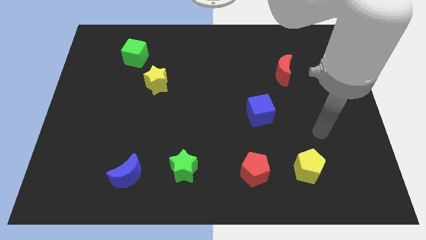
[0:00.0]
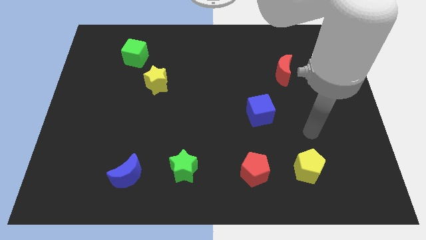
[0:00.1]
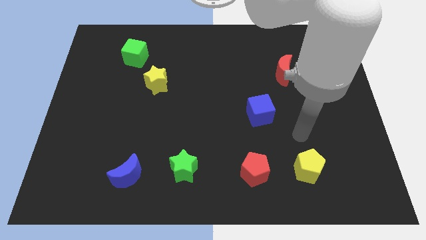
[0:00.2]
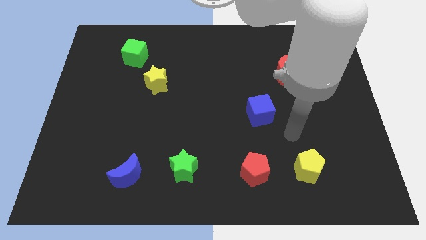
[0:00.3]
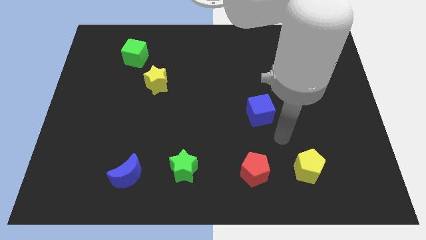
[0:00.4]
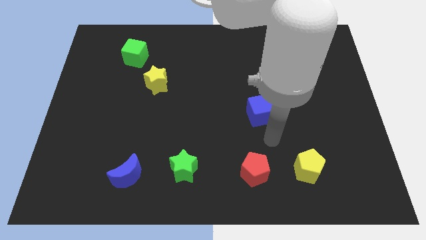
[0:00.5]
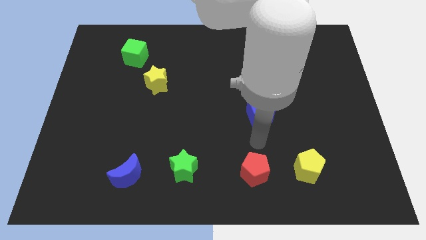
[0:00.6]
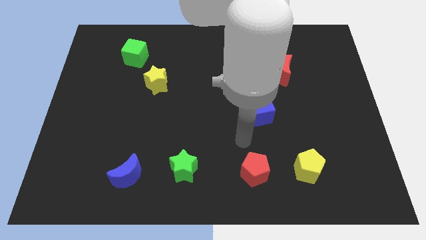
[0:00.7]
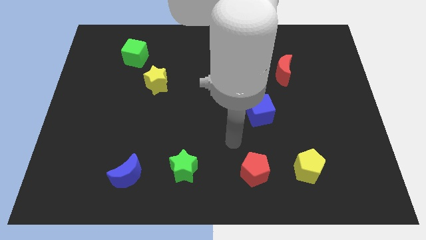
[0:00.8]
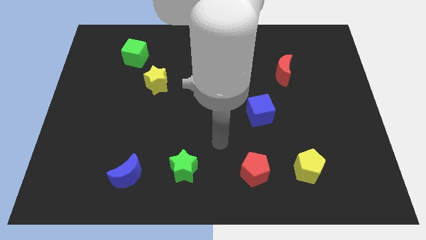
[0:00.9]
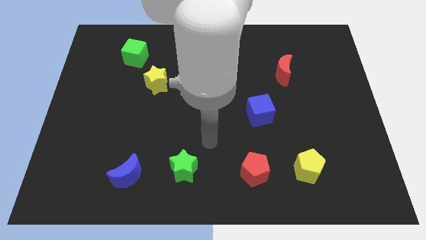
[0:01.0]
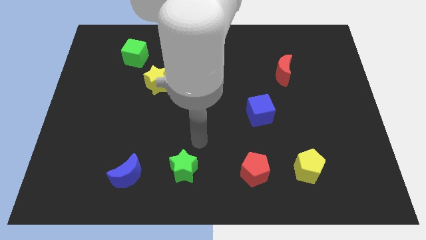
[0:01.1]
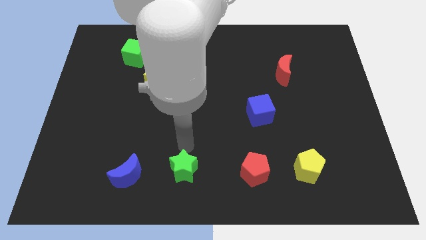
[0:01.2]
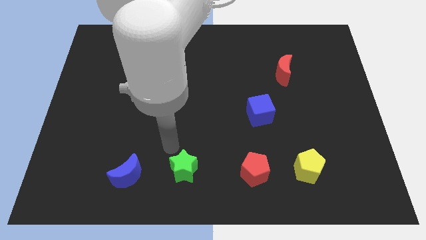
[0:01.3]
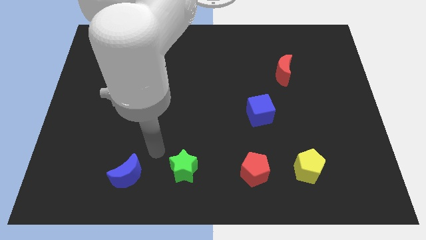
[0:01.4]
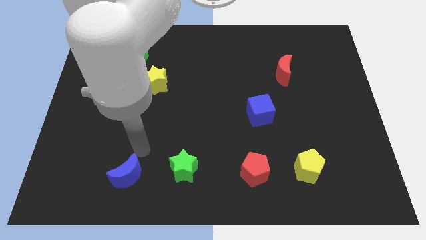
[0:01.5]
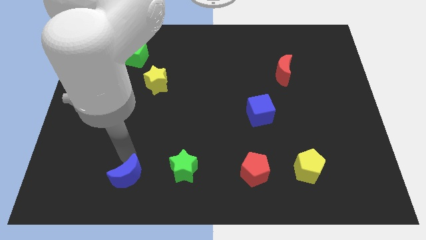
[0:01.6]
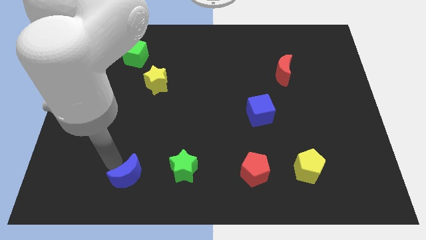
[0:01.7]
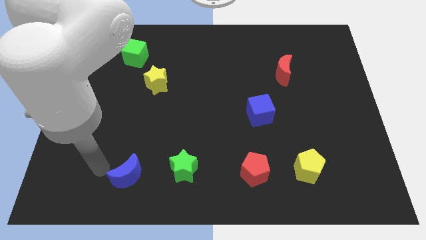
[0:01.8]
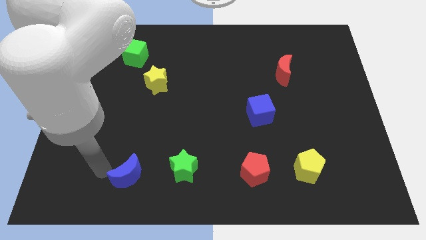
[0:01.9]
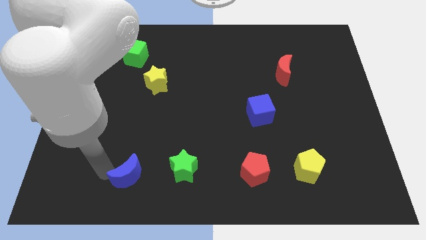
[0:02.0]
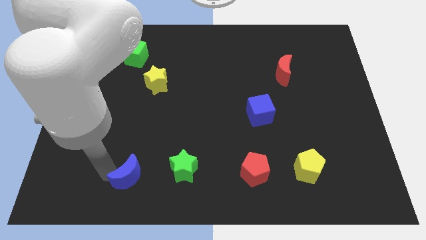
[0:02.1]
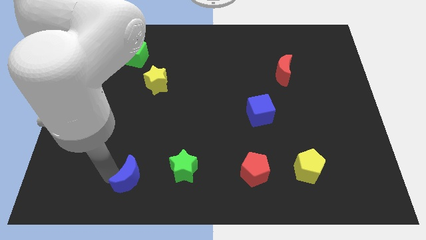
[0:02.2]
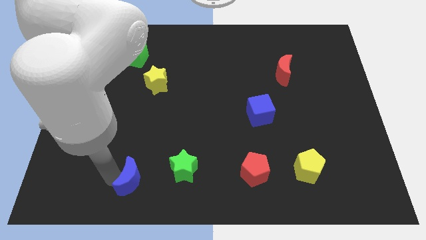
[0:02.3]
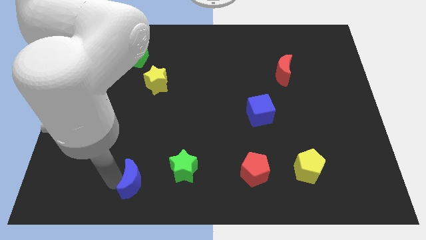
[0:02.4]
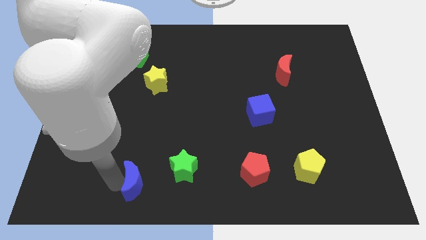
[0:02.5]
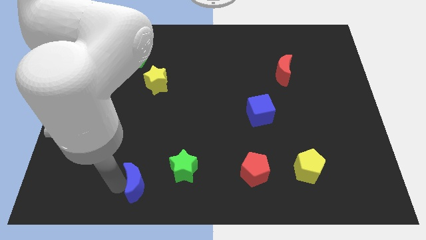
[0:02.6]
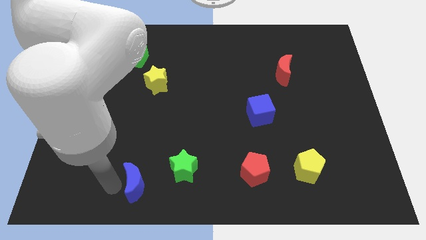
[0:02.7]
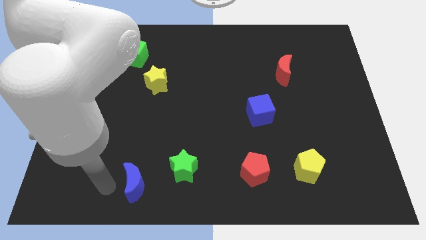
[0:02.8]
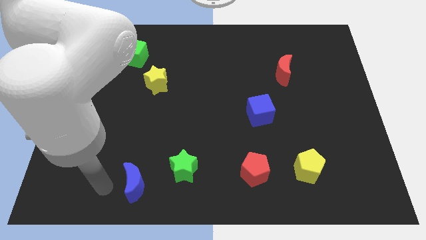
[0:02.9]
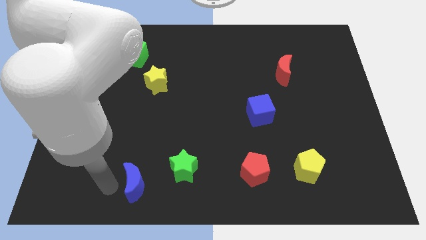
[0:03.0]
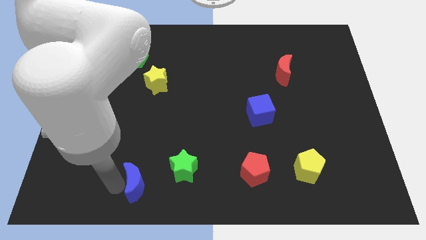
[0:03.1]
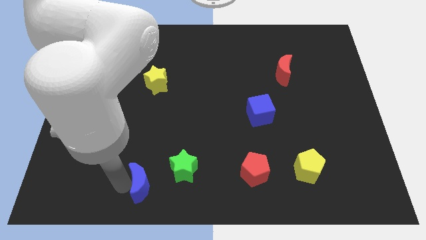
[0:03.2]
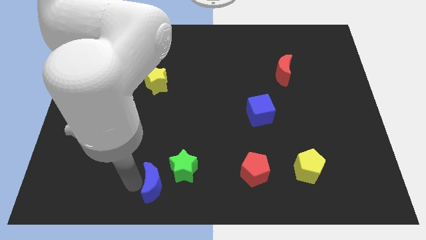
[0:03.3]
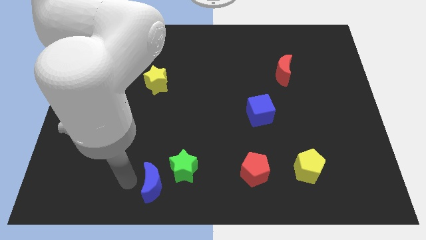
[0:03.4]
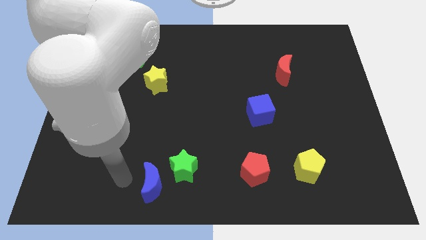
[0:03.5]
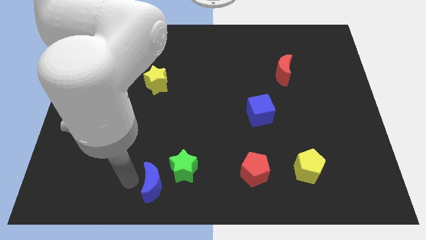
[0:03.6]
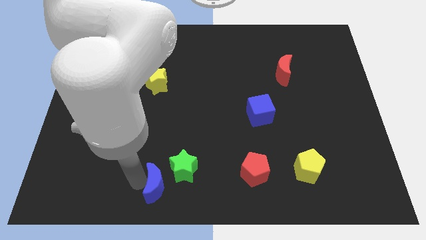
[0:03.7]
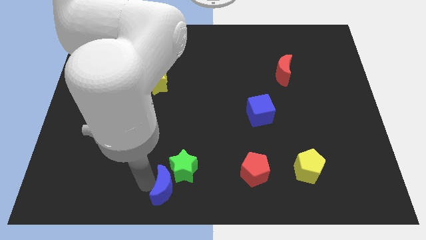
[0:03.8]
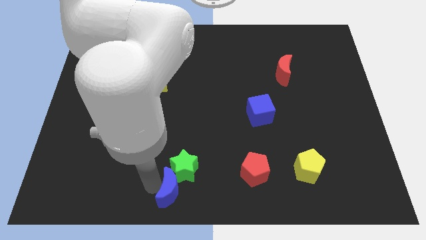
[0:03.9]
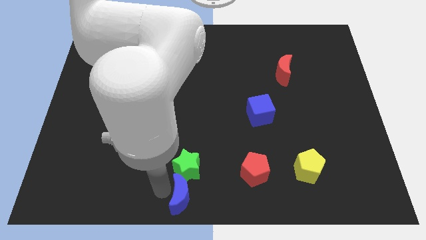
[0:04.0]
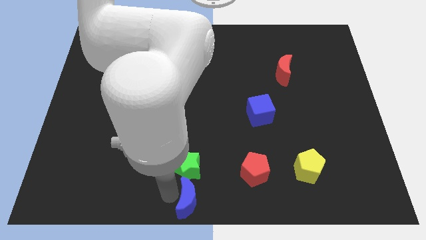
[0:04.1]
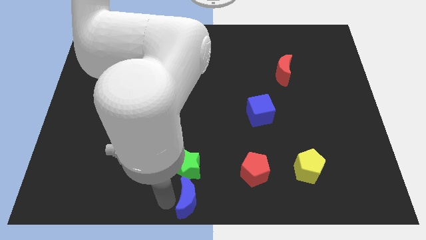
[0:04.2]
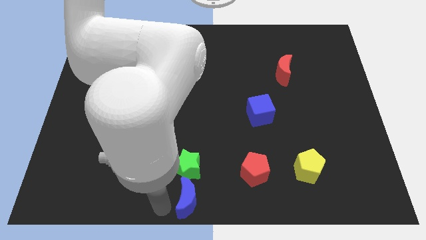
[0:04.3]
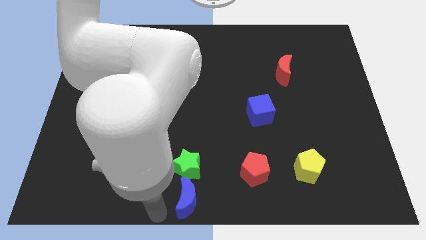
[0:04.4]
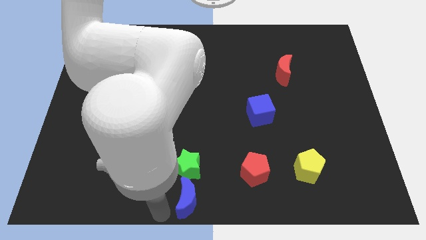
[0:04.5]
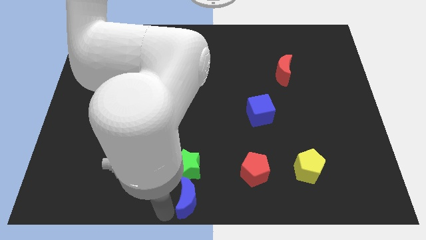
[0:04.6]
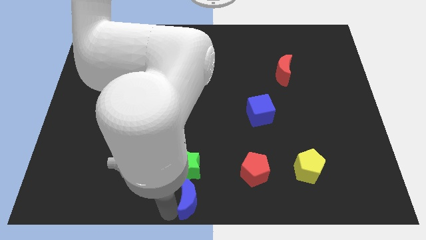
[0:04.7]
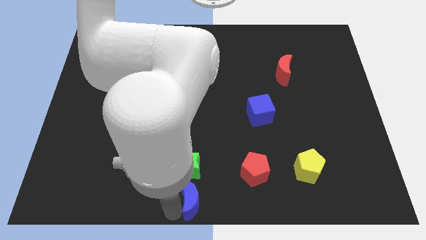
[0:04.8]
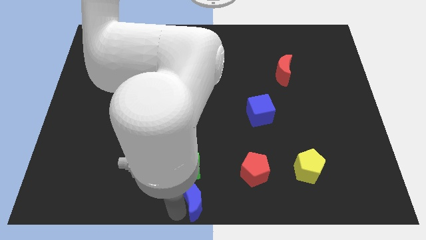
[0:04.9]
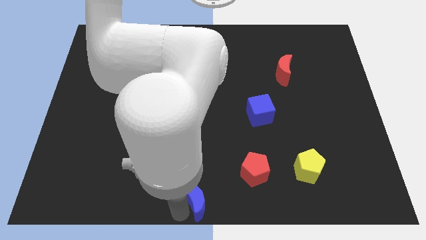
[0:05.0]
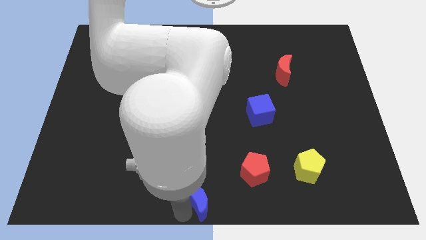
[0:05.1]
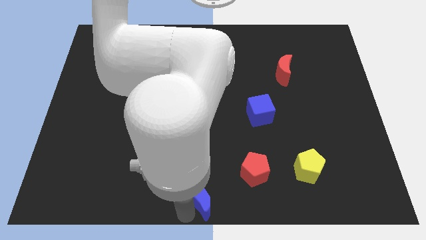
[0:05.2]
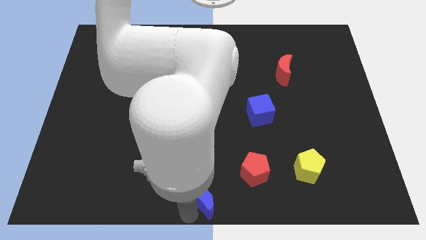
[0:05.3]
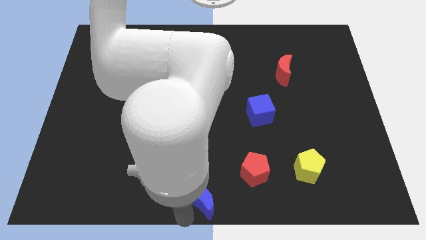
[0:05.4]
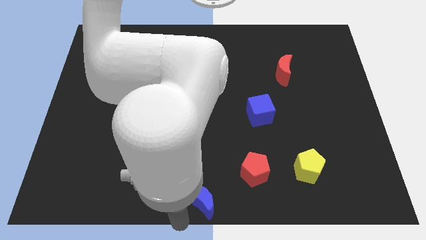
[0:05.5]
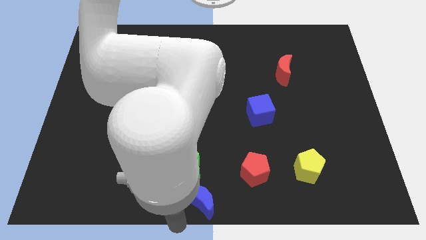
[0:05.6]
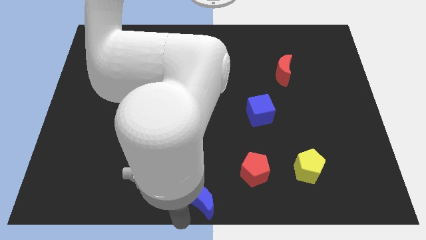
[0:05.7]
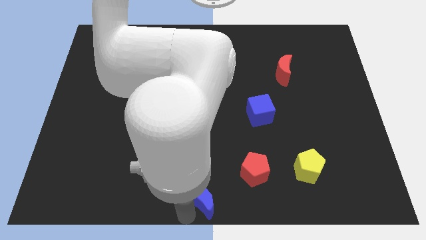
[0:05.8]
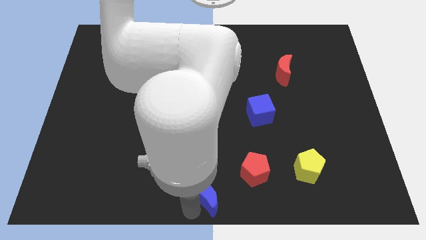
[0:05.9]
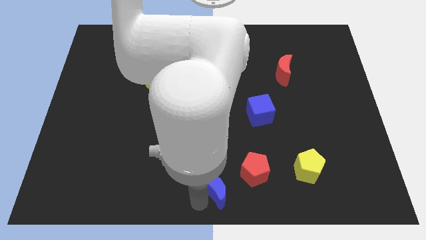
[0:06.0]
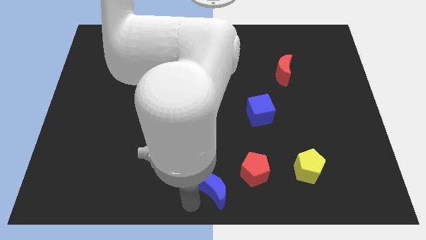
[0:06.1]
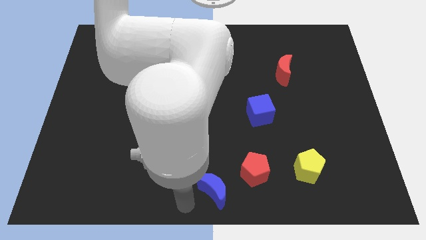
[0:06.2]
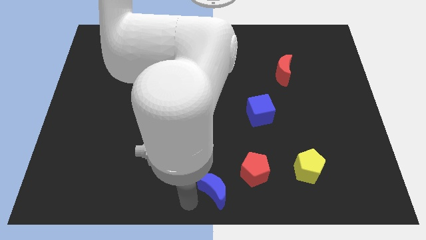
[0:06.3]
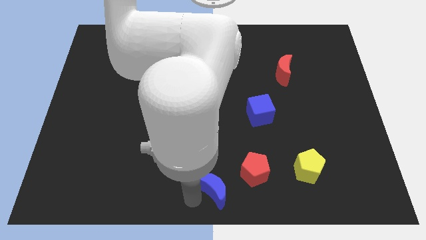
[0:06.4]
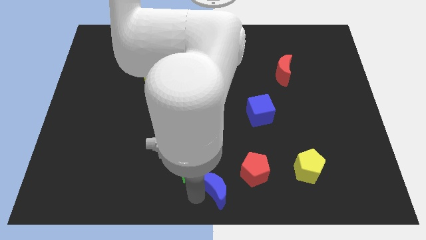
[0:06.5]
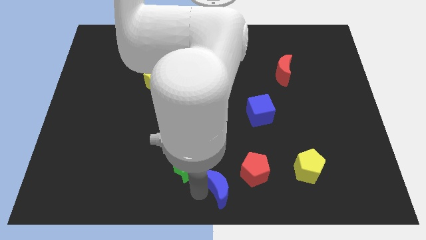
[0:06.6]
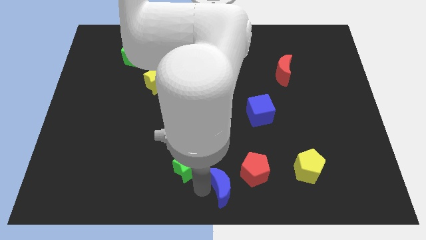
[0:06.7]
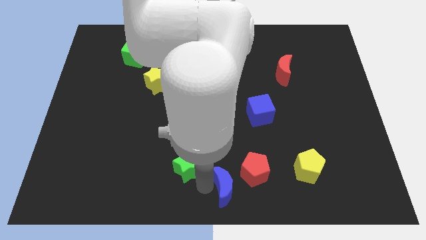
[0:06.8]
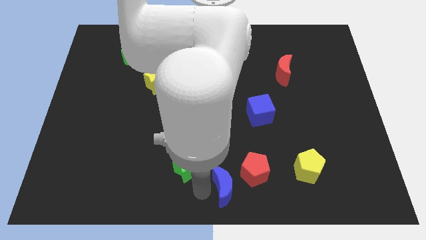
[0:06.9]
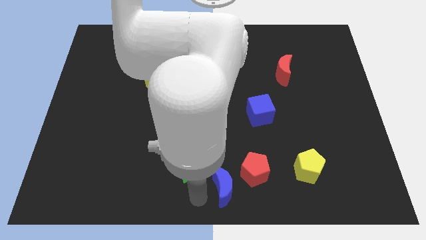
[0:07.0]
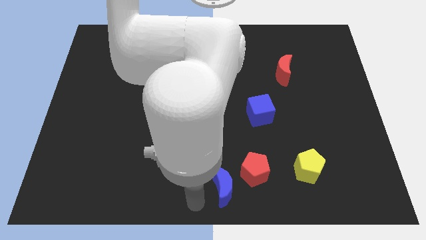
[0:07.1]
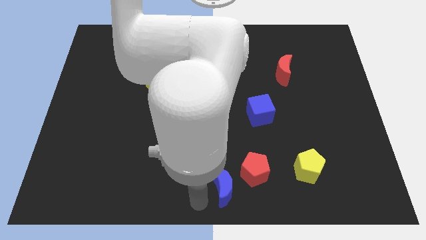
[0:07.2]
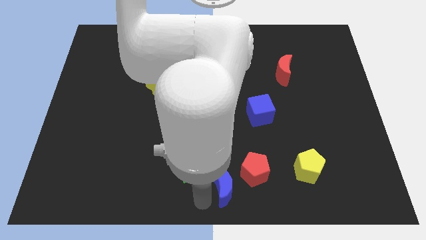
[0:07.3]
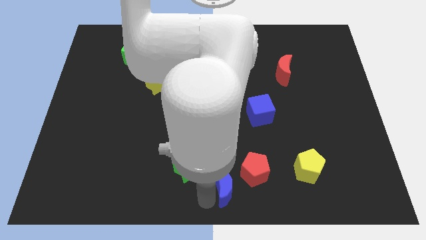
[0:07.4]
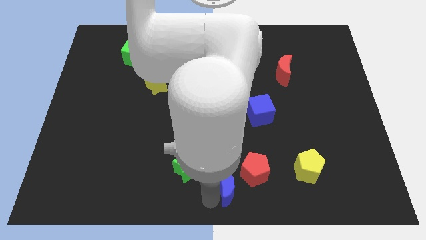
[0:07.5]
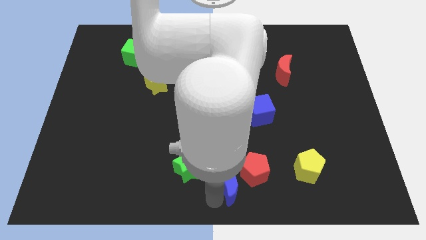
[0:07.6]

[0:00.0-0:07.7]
move the blue moon to the red pentagon
